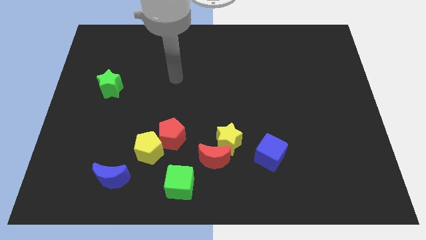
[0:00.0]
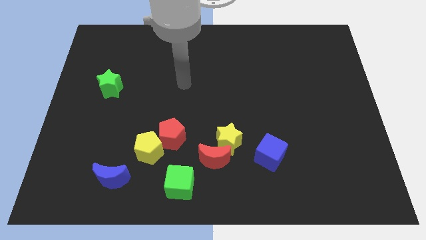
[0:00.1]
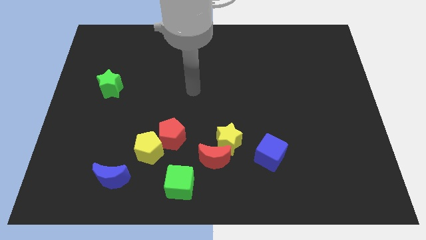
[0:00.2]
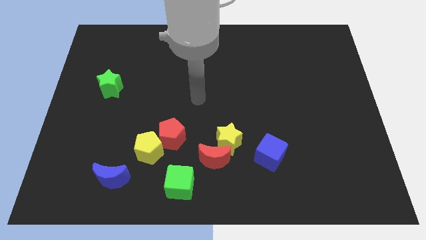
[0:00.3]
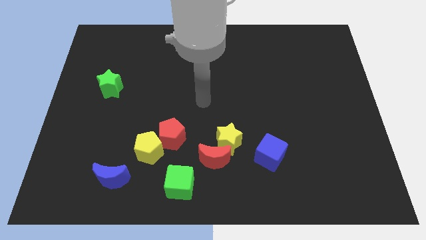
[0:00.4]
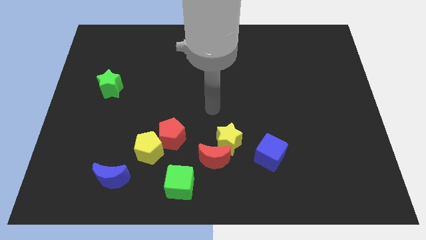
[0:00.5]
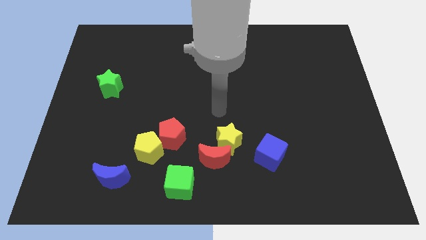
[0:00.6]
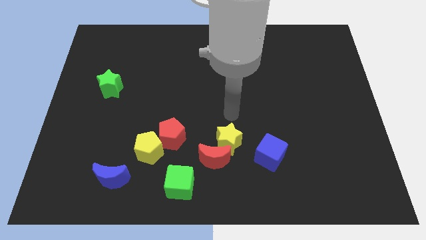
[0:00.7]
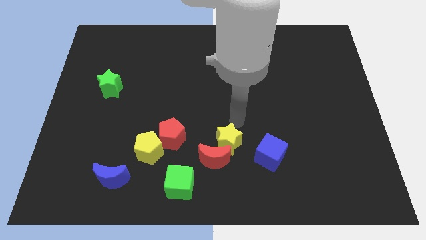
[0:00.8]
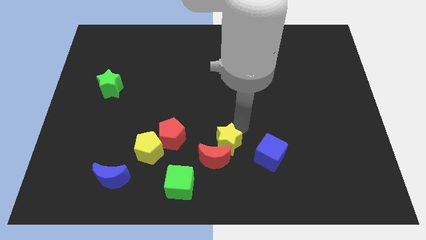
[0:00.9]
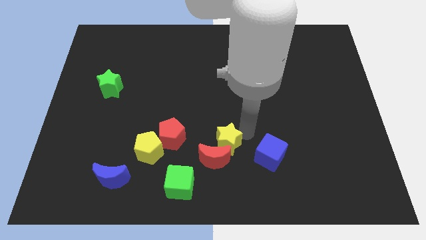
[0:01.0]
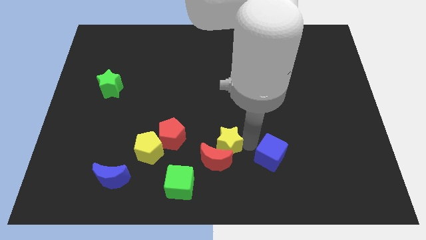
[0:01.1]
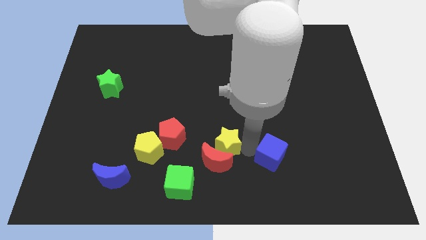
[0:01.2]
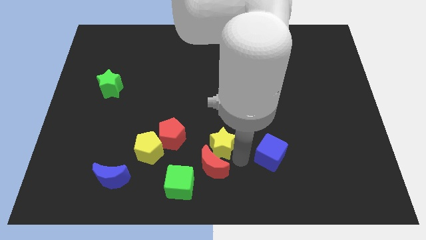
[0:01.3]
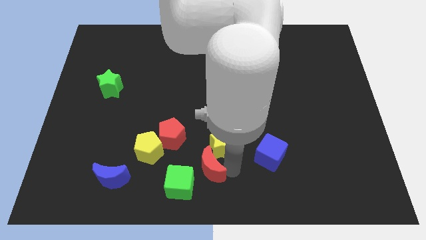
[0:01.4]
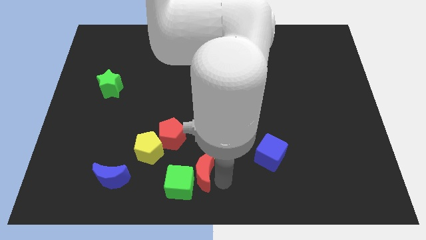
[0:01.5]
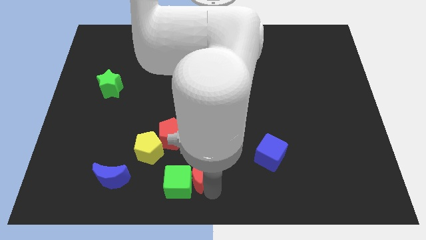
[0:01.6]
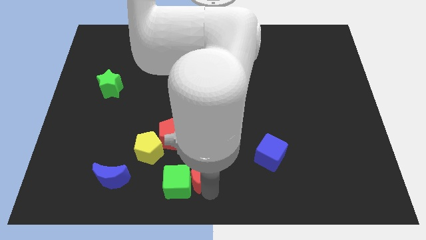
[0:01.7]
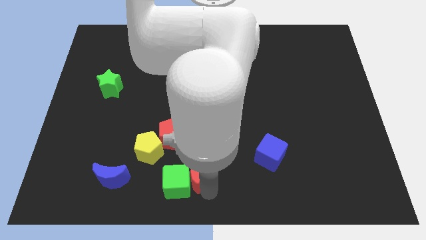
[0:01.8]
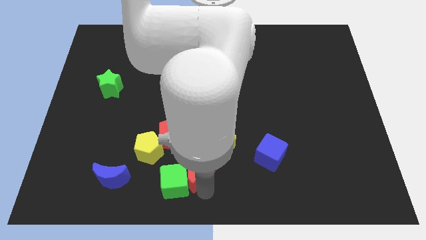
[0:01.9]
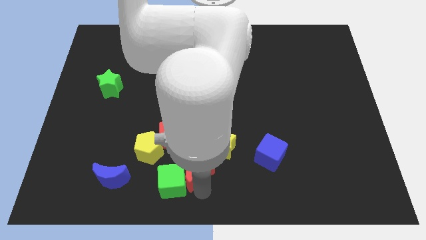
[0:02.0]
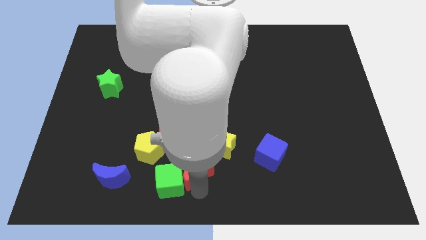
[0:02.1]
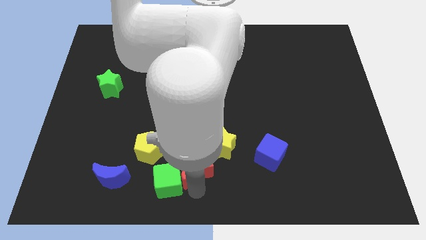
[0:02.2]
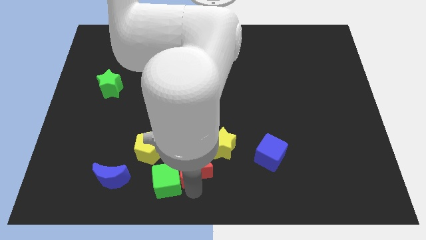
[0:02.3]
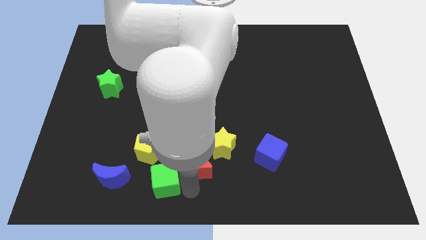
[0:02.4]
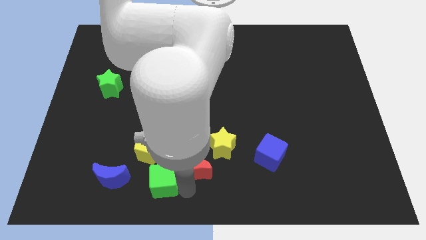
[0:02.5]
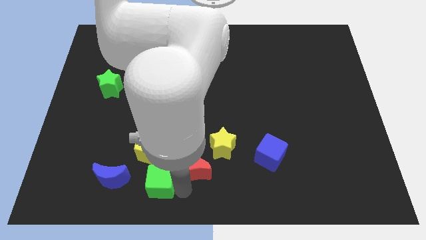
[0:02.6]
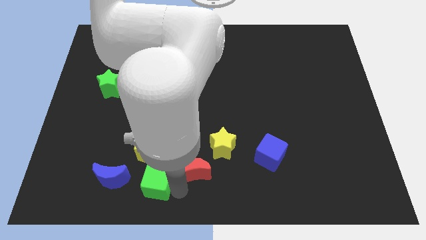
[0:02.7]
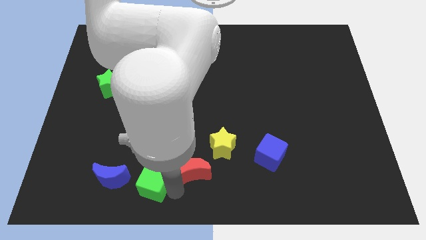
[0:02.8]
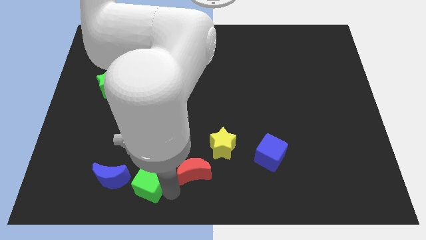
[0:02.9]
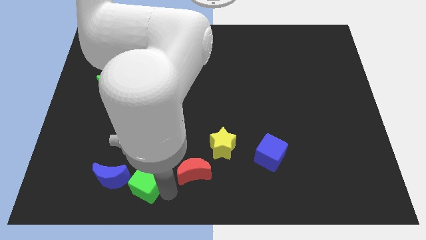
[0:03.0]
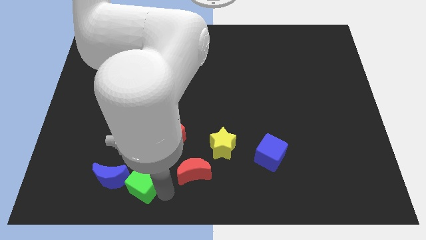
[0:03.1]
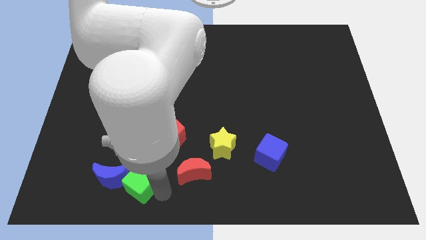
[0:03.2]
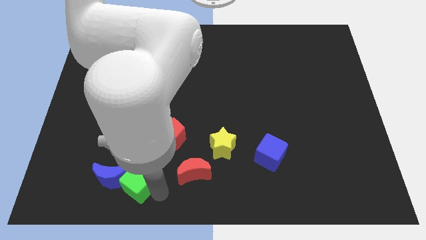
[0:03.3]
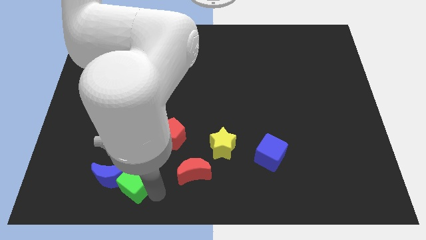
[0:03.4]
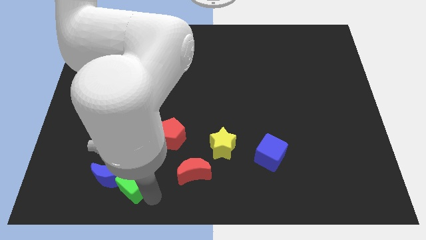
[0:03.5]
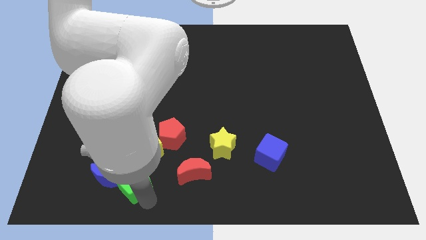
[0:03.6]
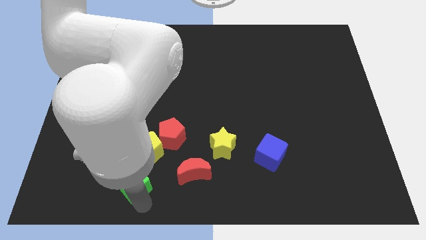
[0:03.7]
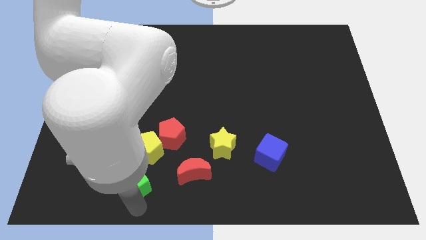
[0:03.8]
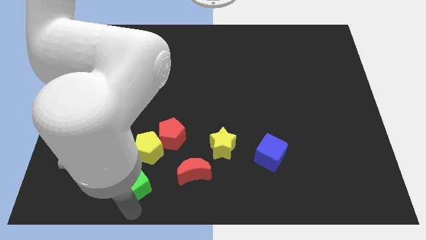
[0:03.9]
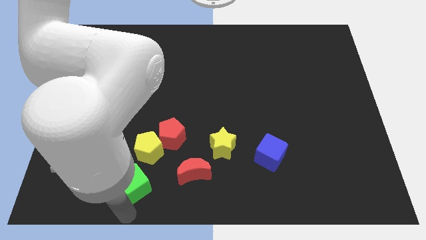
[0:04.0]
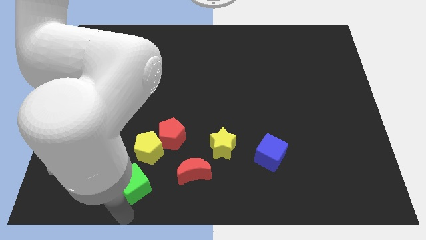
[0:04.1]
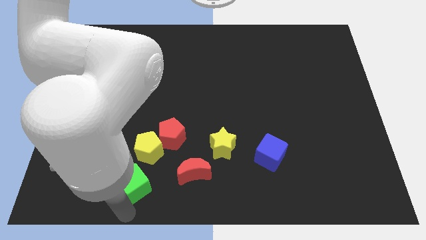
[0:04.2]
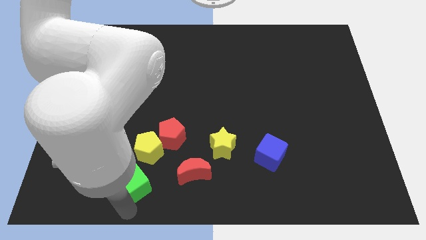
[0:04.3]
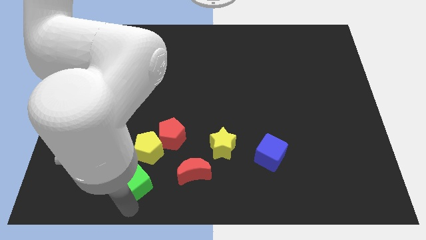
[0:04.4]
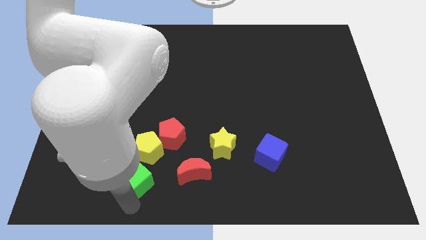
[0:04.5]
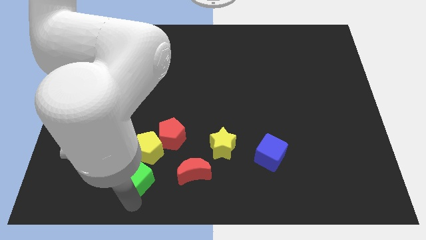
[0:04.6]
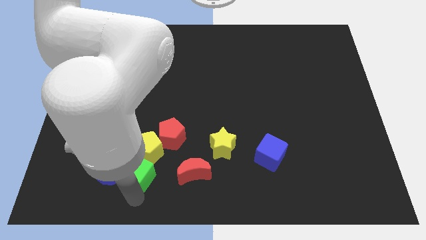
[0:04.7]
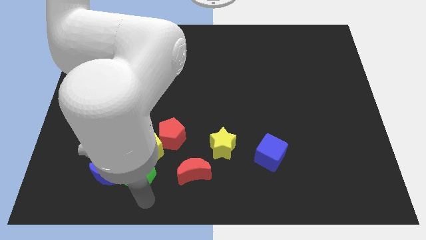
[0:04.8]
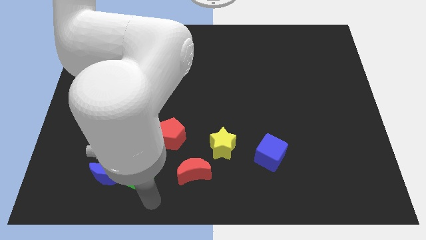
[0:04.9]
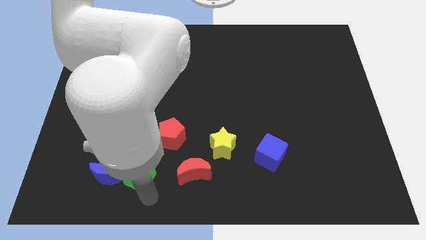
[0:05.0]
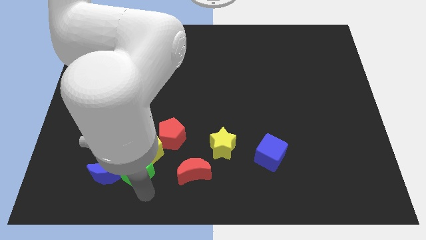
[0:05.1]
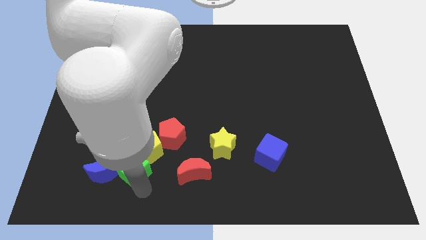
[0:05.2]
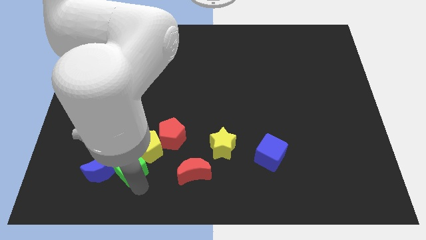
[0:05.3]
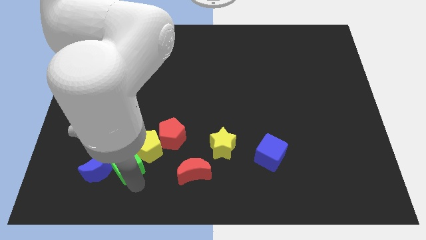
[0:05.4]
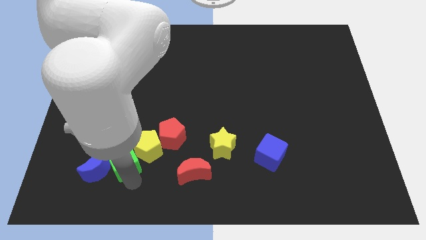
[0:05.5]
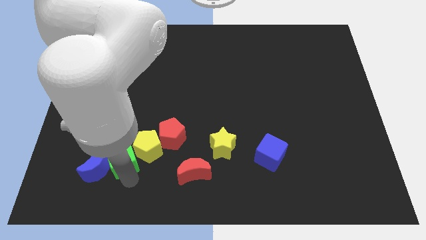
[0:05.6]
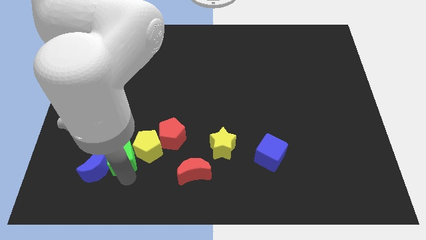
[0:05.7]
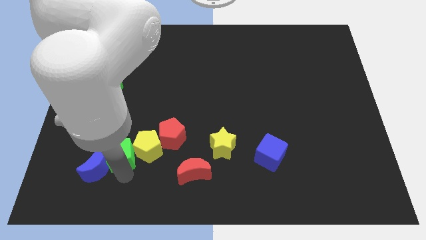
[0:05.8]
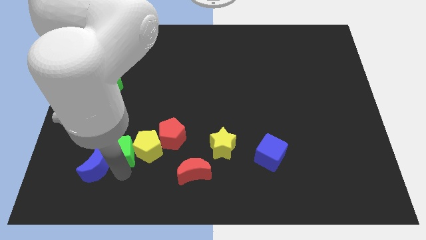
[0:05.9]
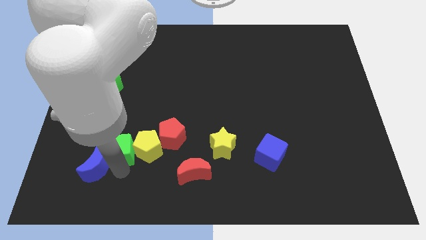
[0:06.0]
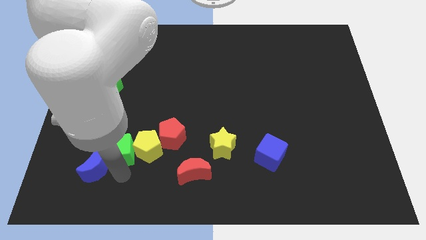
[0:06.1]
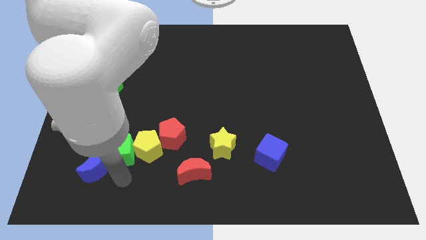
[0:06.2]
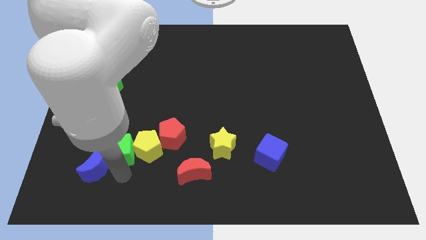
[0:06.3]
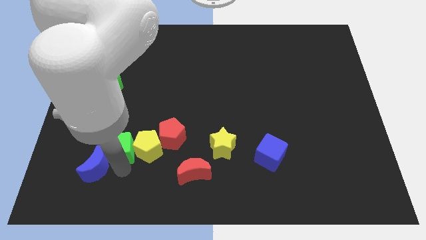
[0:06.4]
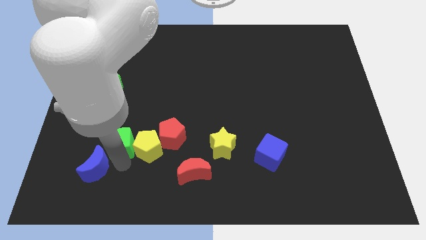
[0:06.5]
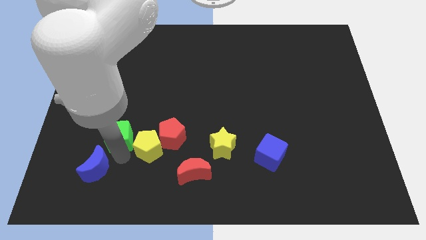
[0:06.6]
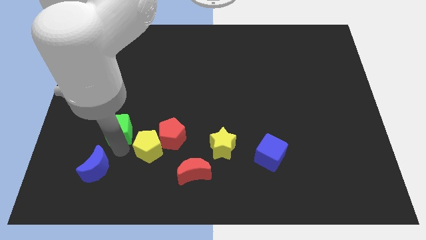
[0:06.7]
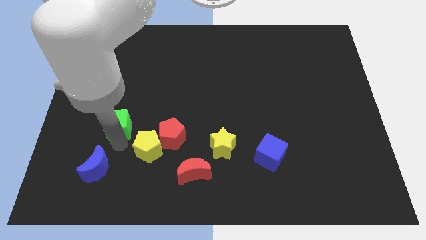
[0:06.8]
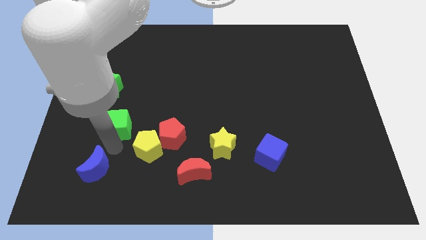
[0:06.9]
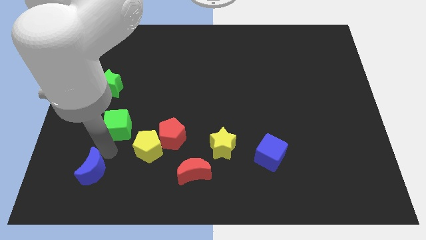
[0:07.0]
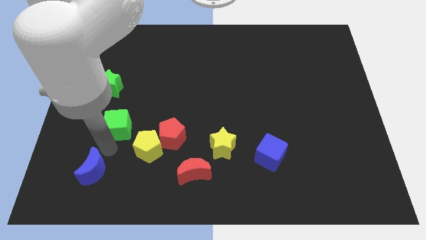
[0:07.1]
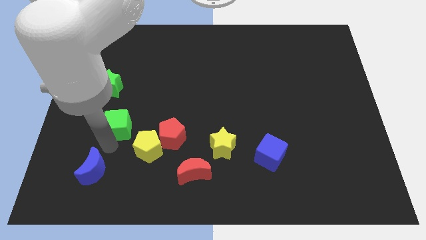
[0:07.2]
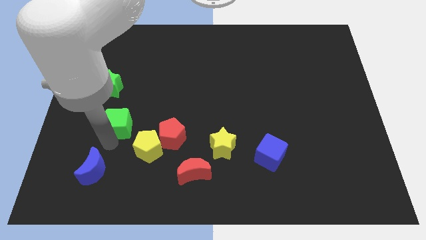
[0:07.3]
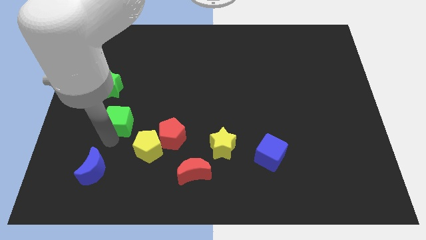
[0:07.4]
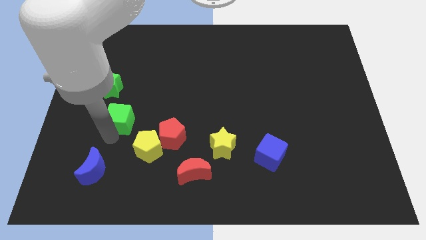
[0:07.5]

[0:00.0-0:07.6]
move the green cube to the bottom right of the green star
